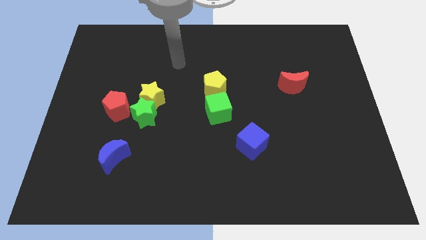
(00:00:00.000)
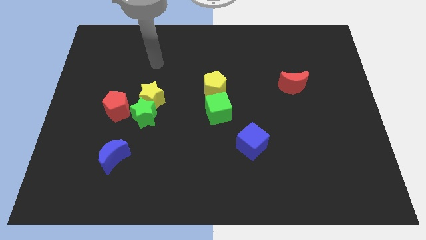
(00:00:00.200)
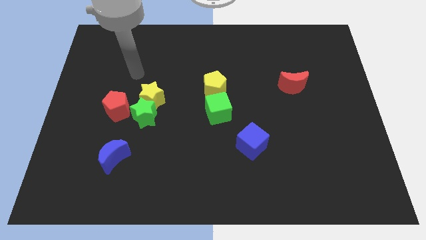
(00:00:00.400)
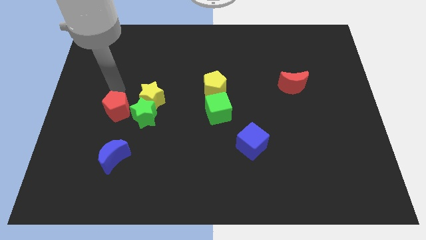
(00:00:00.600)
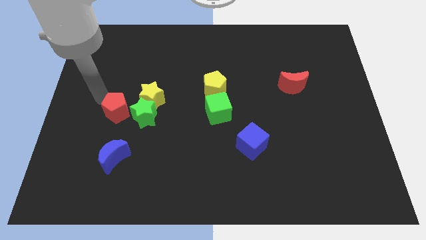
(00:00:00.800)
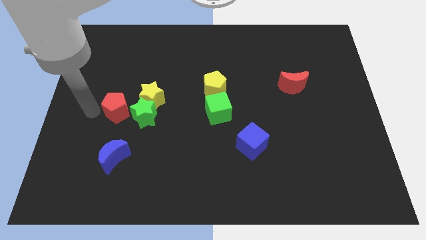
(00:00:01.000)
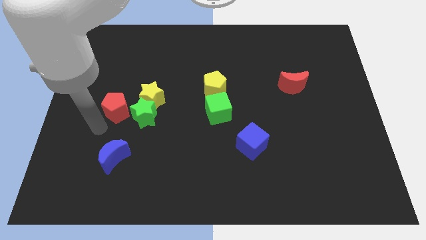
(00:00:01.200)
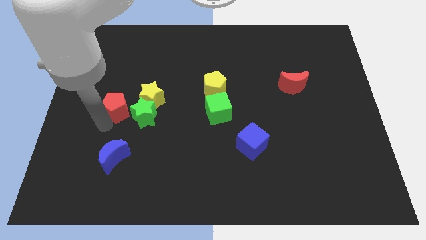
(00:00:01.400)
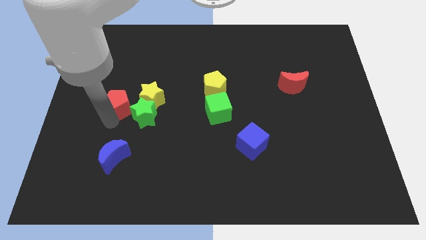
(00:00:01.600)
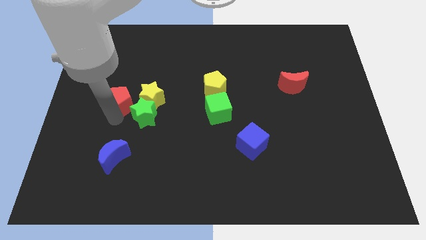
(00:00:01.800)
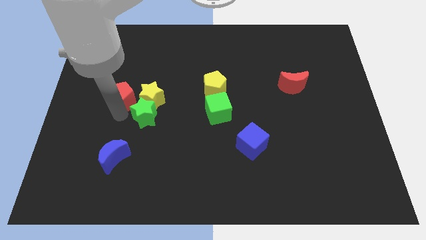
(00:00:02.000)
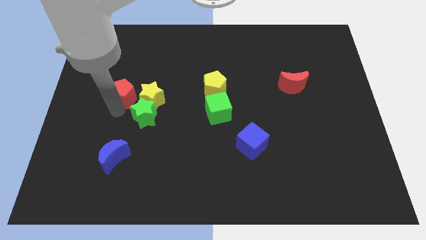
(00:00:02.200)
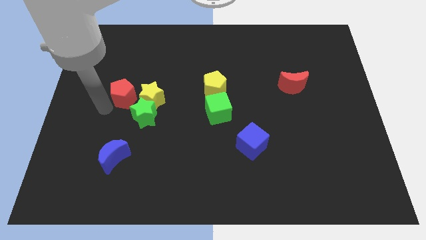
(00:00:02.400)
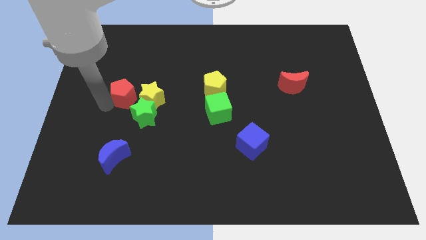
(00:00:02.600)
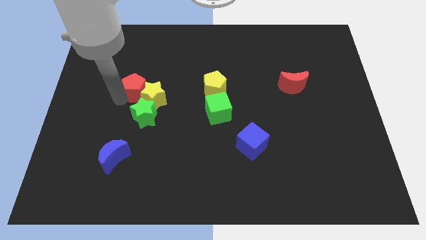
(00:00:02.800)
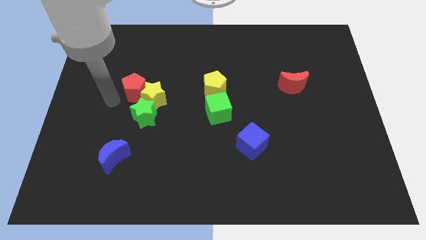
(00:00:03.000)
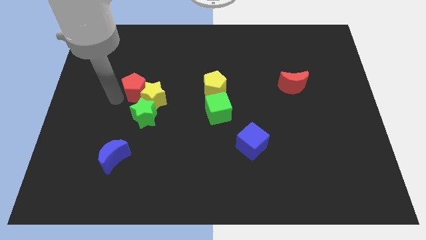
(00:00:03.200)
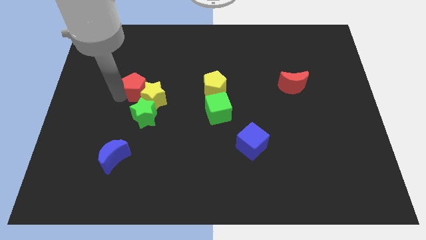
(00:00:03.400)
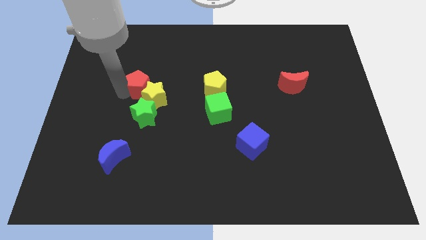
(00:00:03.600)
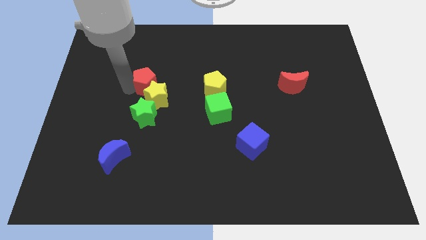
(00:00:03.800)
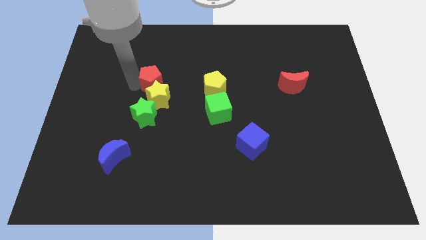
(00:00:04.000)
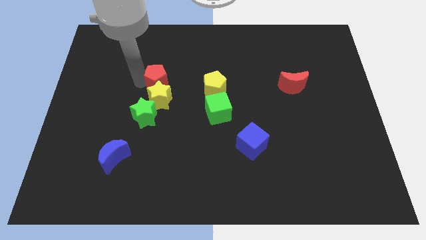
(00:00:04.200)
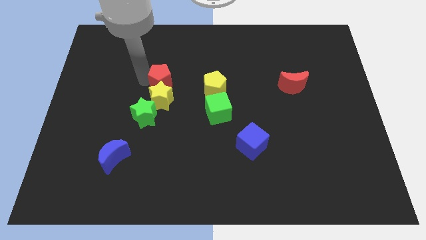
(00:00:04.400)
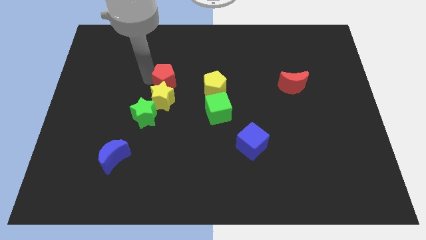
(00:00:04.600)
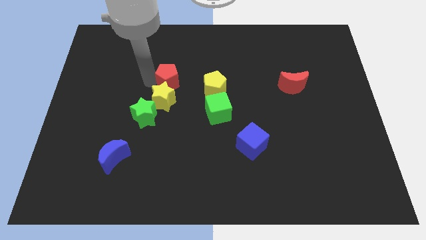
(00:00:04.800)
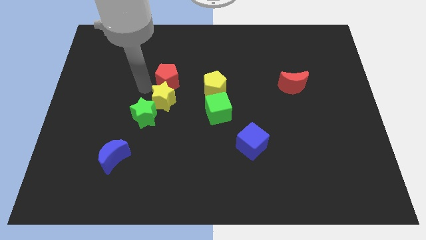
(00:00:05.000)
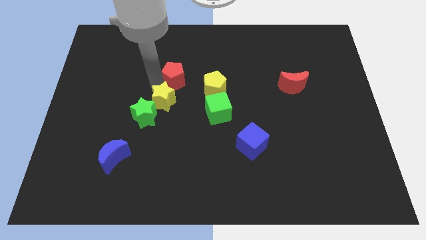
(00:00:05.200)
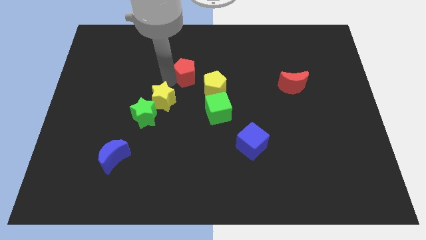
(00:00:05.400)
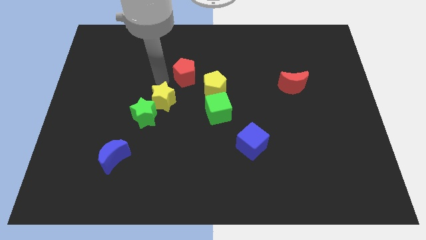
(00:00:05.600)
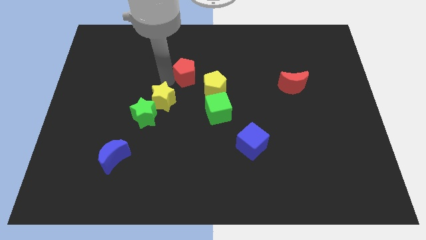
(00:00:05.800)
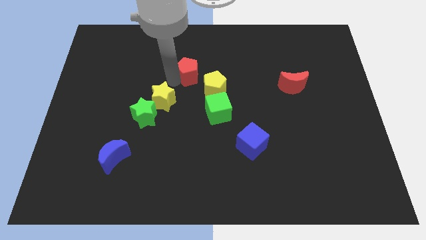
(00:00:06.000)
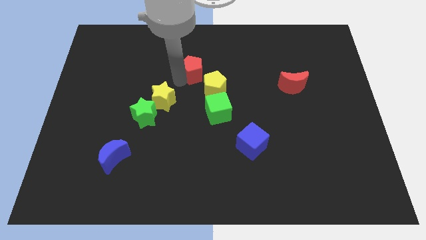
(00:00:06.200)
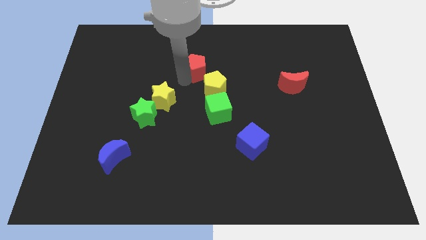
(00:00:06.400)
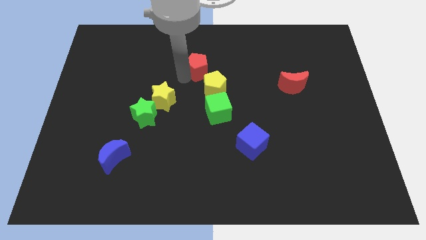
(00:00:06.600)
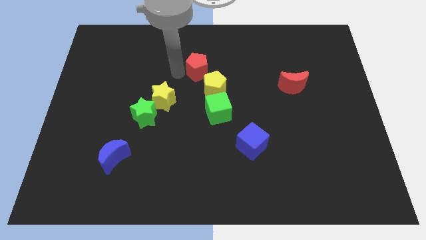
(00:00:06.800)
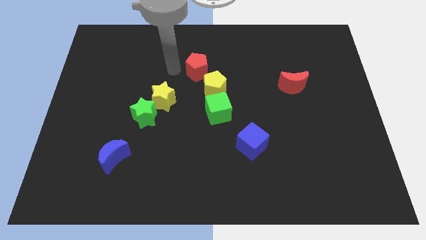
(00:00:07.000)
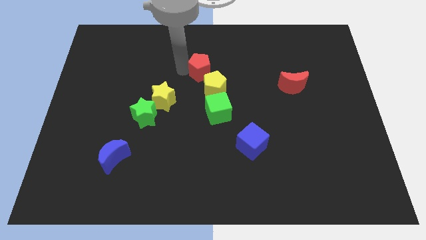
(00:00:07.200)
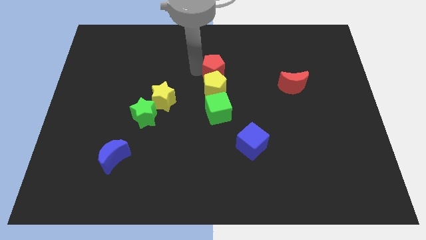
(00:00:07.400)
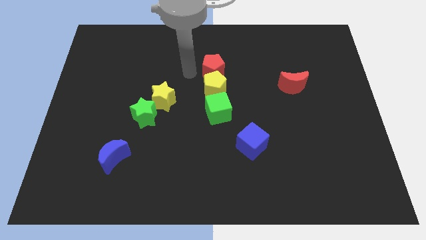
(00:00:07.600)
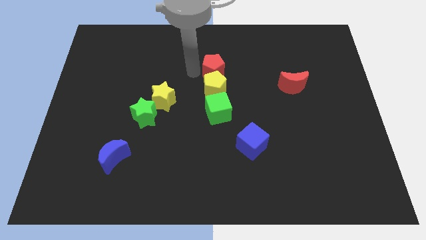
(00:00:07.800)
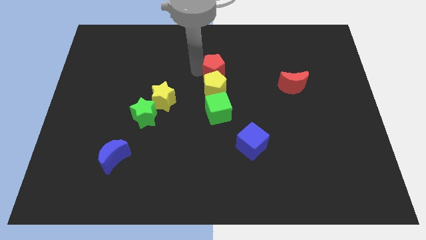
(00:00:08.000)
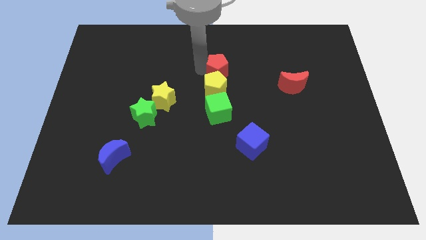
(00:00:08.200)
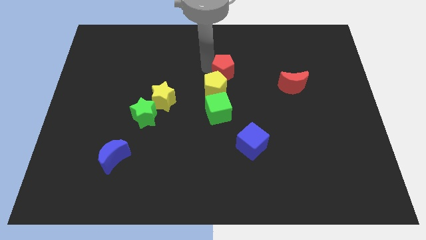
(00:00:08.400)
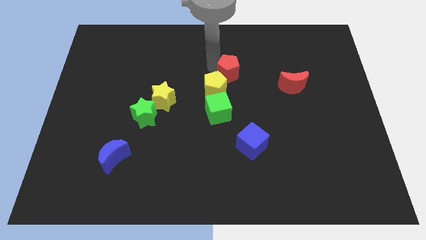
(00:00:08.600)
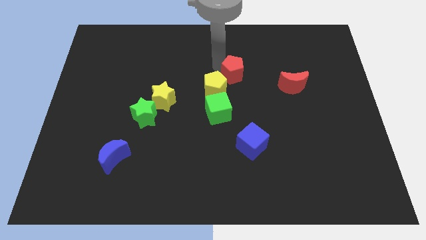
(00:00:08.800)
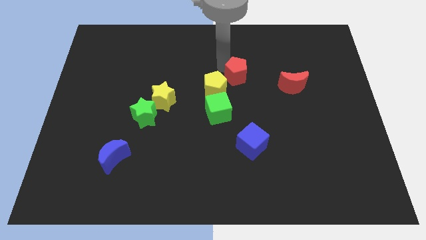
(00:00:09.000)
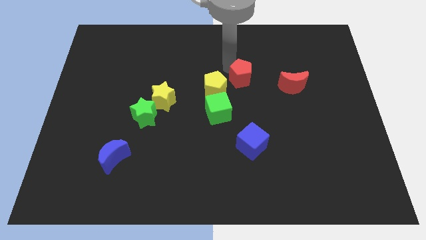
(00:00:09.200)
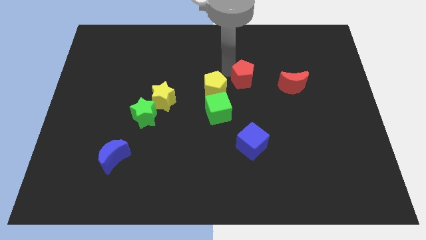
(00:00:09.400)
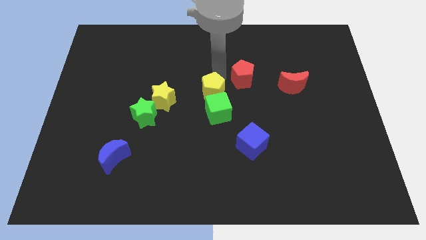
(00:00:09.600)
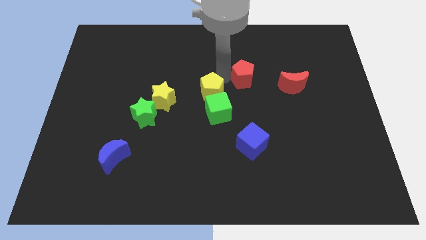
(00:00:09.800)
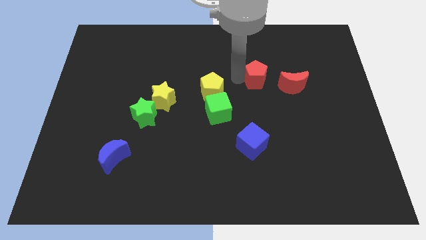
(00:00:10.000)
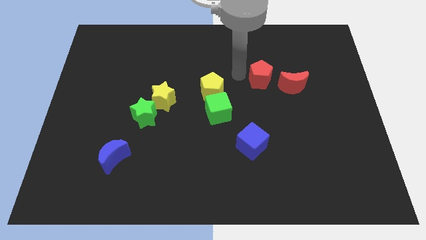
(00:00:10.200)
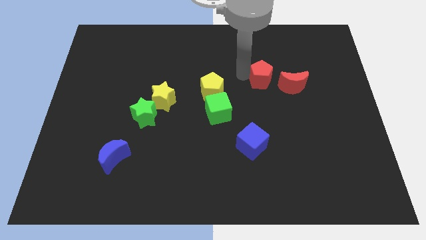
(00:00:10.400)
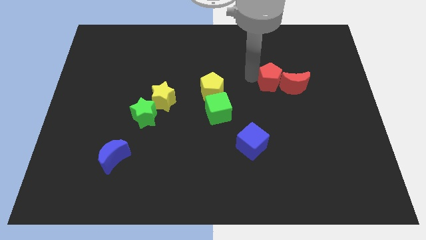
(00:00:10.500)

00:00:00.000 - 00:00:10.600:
push the red pentagon close to the red moon

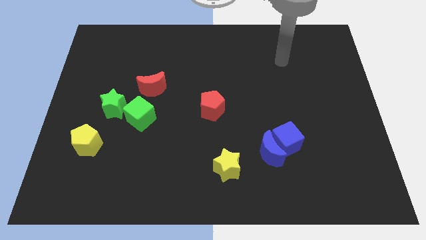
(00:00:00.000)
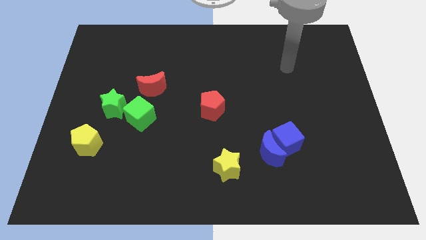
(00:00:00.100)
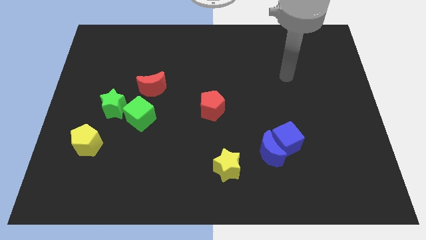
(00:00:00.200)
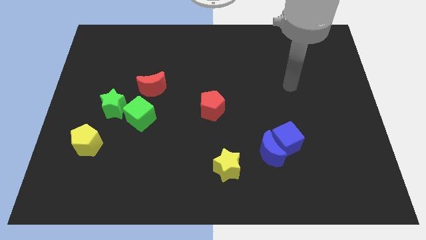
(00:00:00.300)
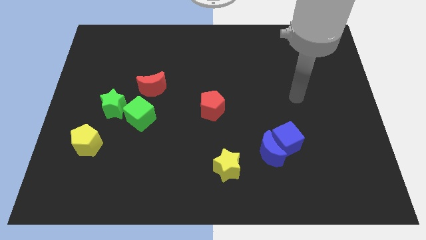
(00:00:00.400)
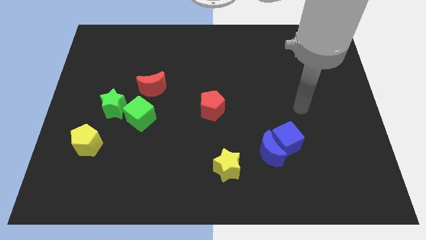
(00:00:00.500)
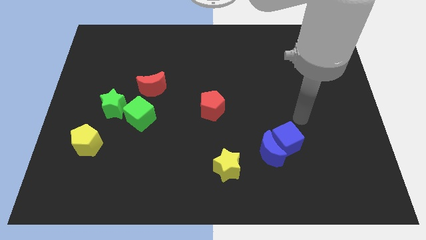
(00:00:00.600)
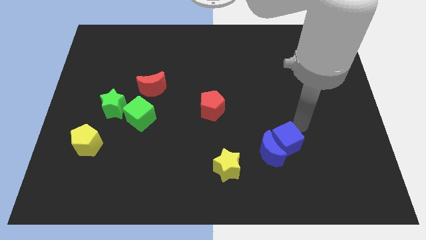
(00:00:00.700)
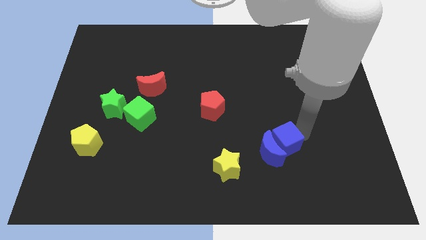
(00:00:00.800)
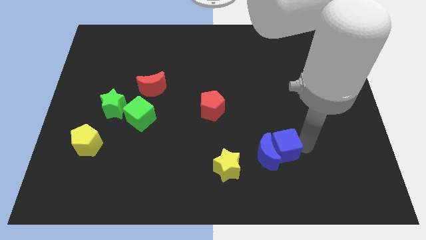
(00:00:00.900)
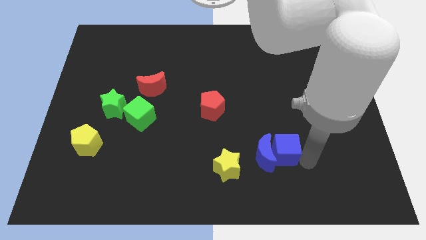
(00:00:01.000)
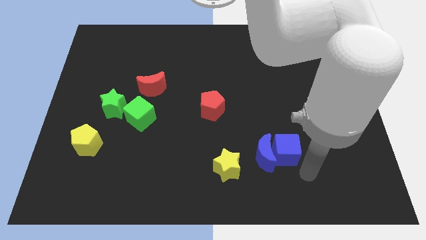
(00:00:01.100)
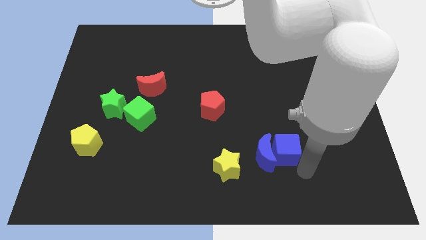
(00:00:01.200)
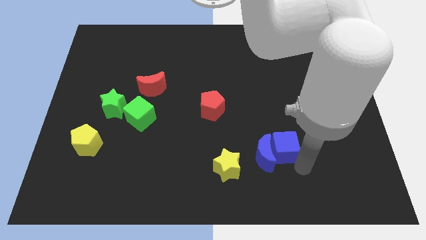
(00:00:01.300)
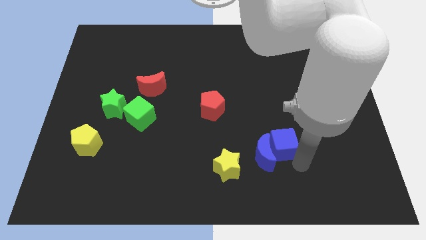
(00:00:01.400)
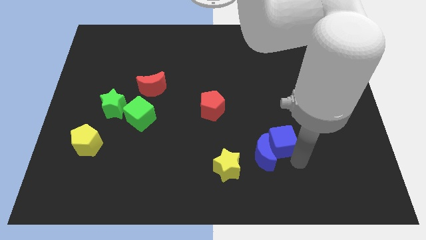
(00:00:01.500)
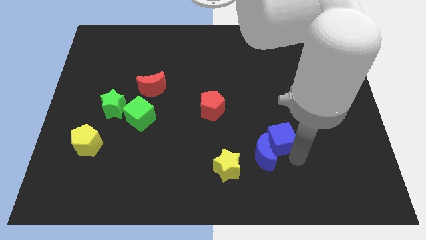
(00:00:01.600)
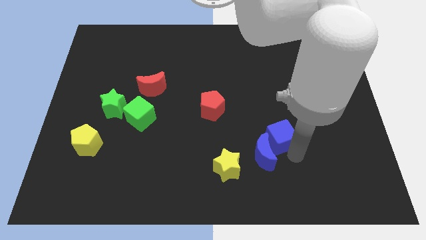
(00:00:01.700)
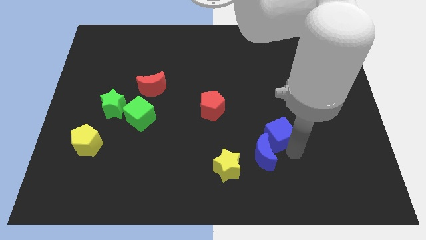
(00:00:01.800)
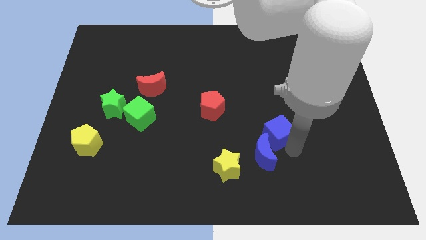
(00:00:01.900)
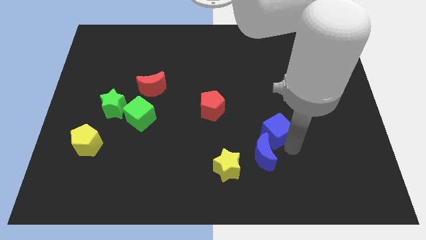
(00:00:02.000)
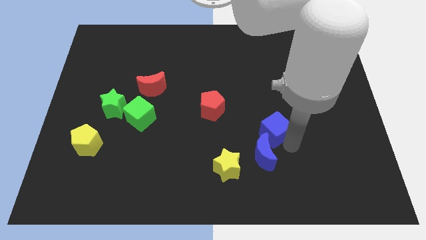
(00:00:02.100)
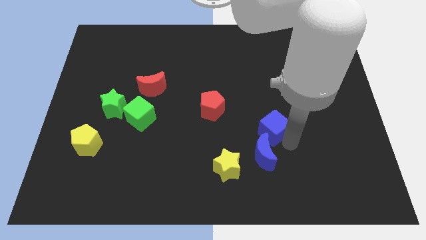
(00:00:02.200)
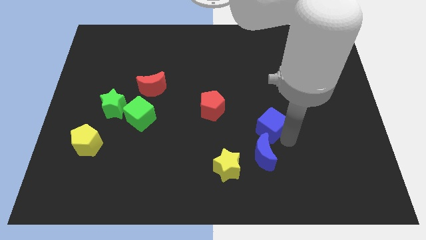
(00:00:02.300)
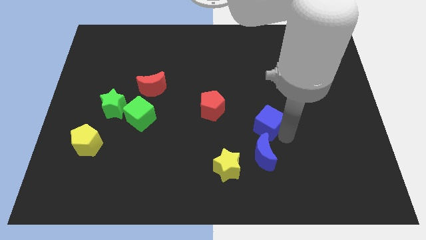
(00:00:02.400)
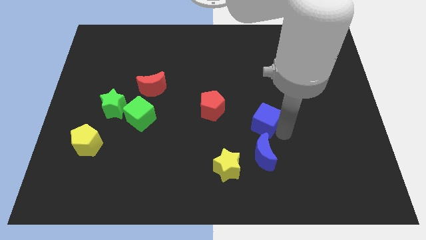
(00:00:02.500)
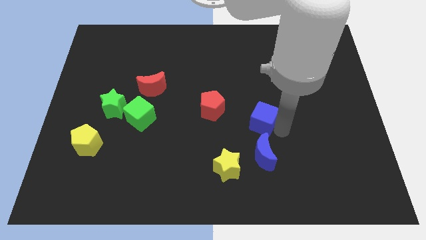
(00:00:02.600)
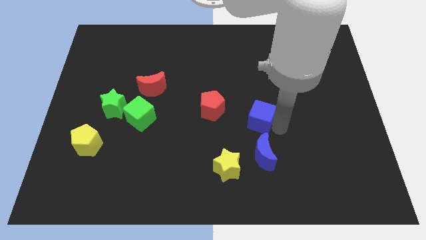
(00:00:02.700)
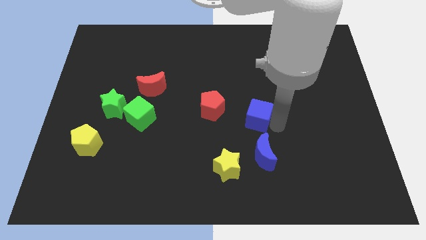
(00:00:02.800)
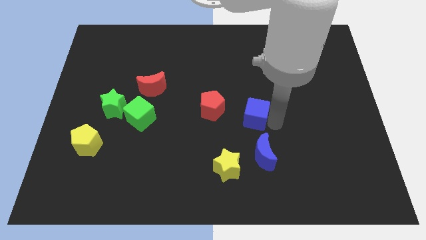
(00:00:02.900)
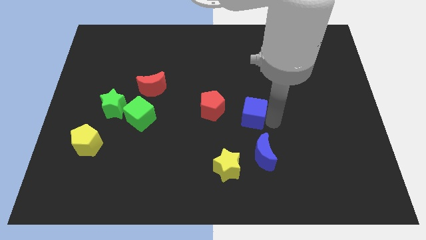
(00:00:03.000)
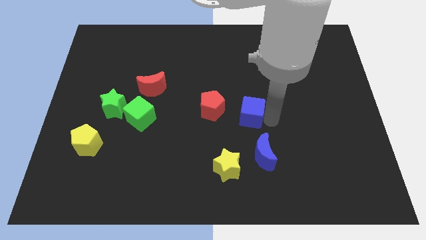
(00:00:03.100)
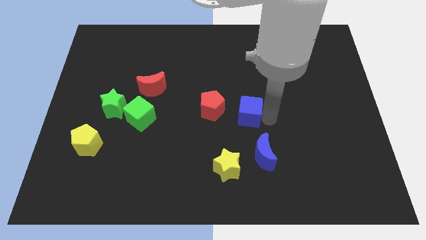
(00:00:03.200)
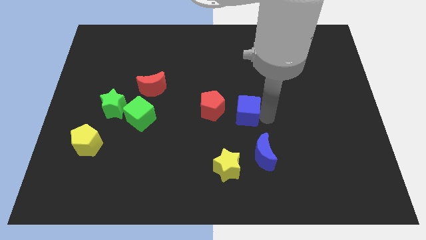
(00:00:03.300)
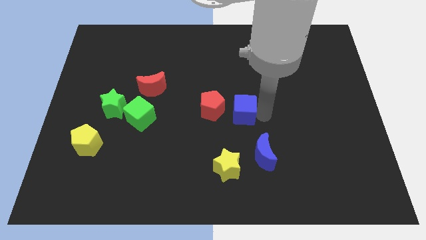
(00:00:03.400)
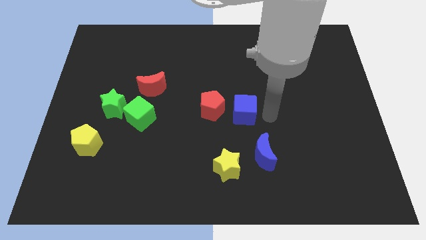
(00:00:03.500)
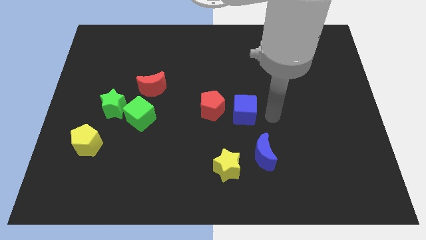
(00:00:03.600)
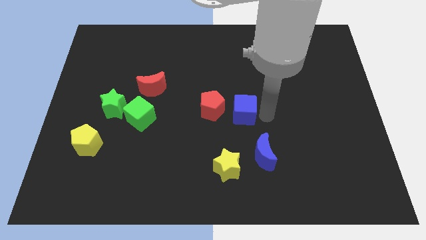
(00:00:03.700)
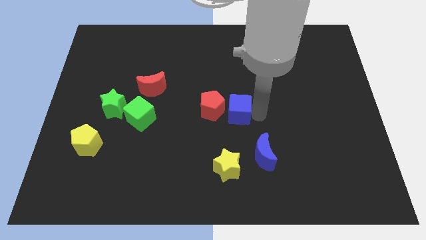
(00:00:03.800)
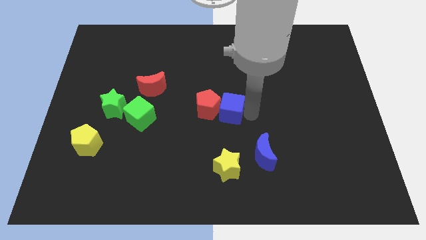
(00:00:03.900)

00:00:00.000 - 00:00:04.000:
push the blue cube close to the red pentagon
